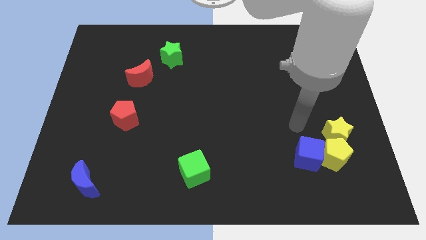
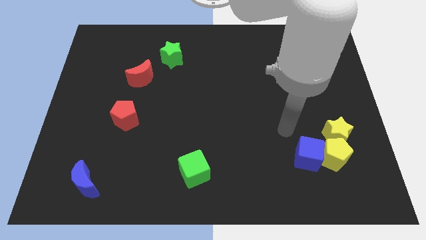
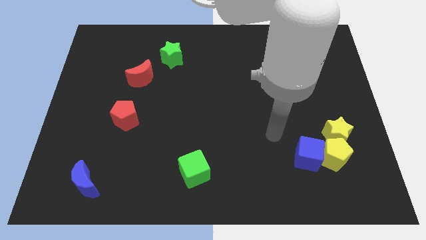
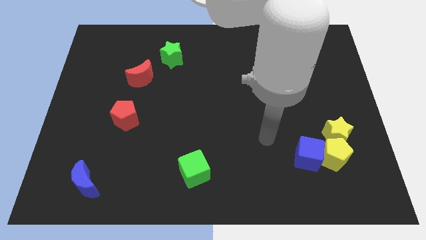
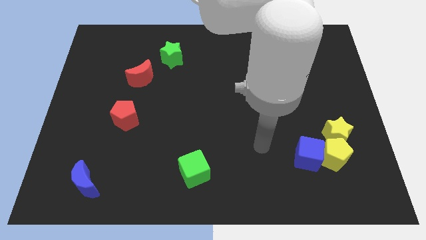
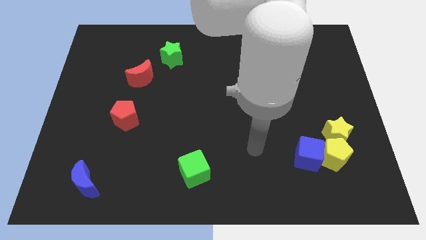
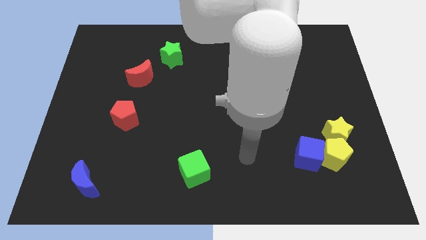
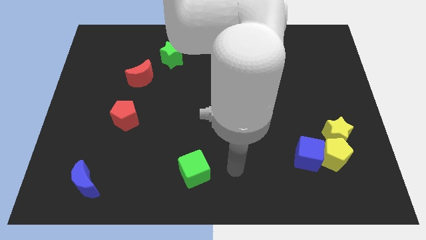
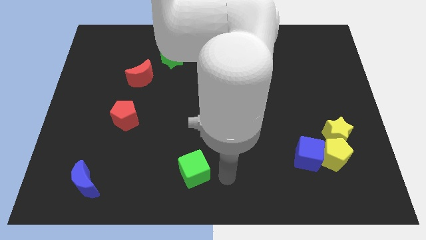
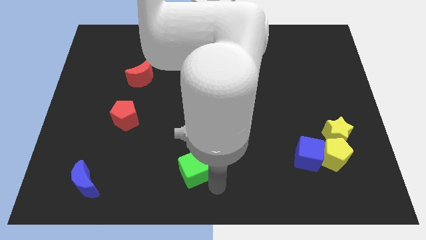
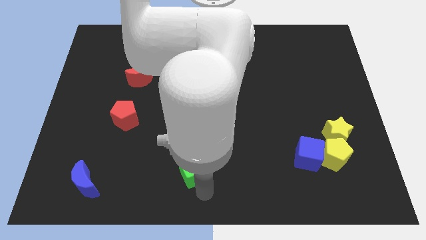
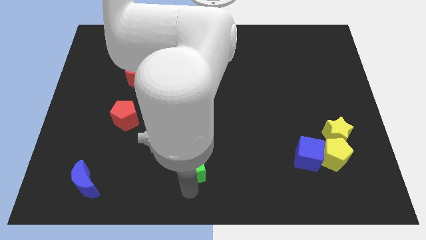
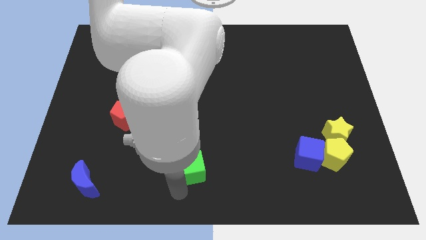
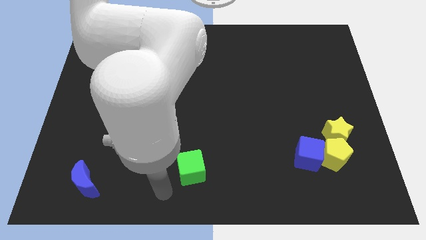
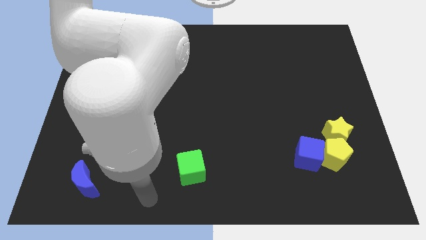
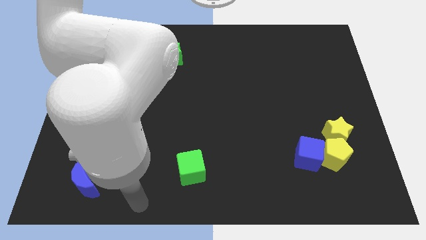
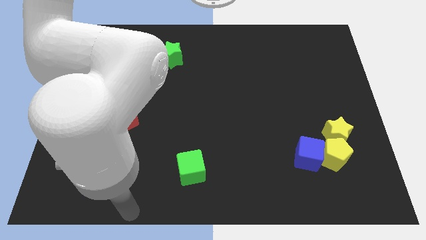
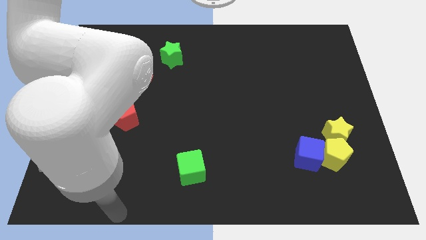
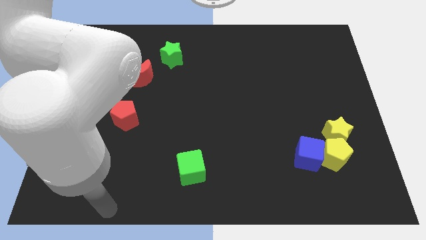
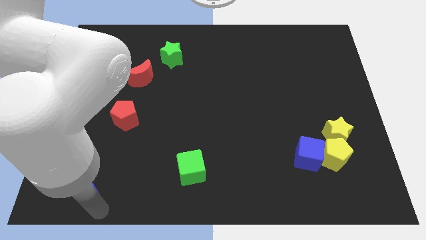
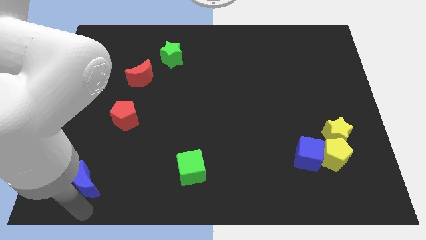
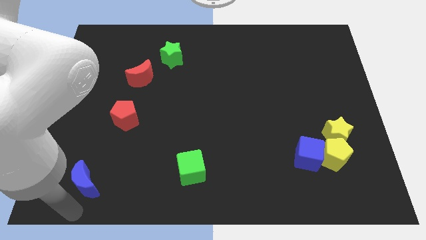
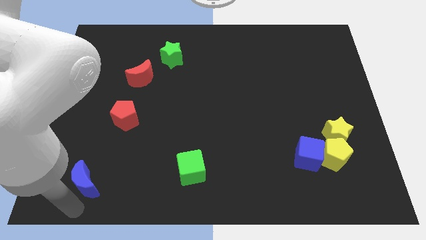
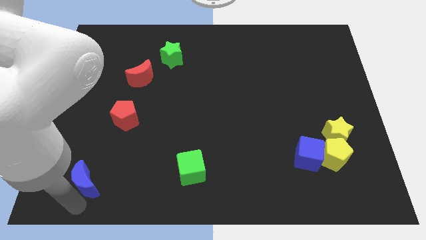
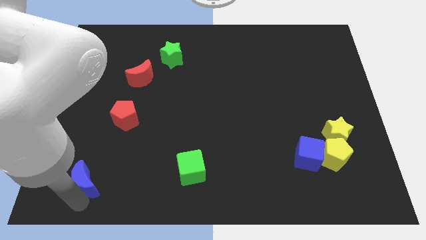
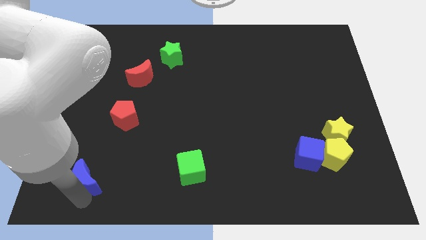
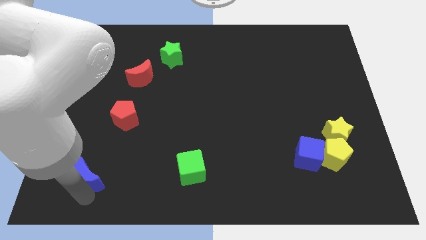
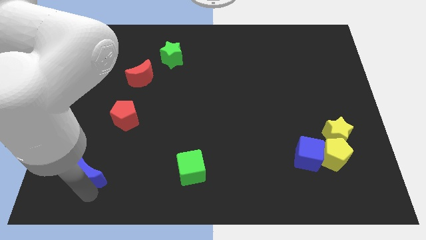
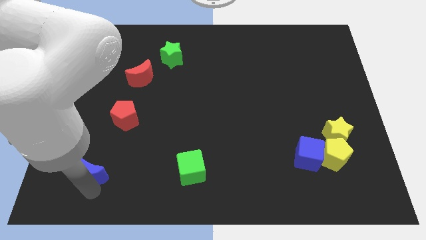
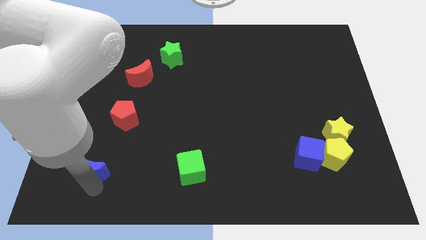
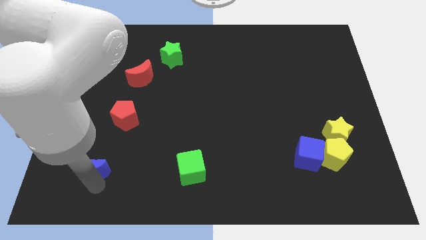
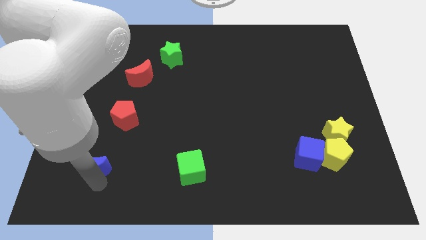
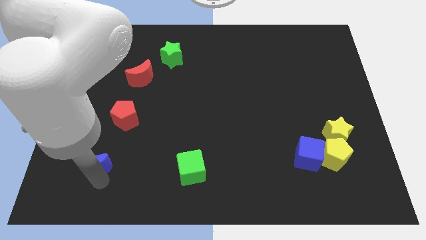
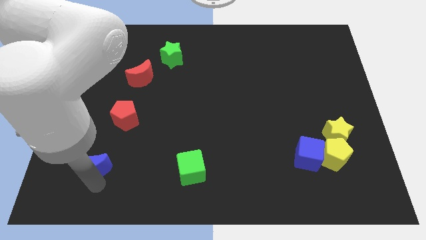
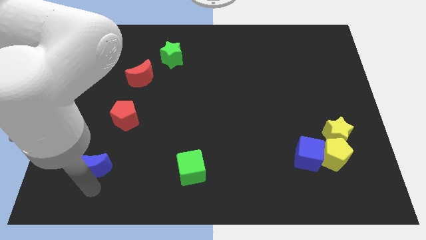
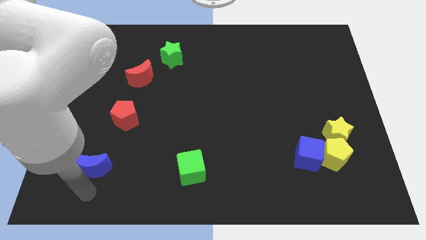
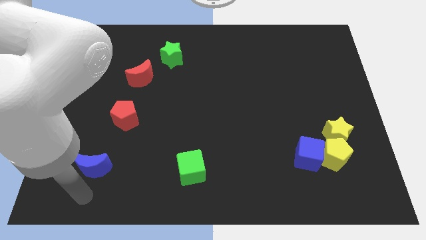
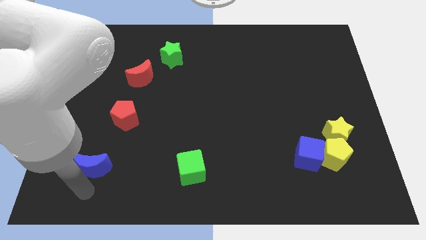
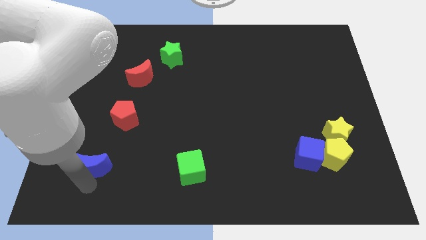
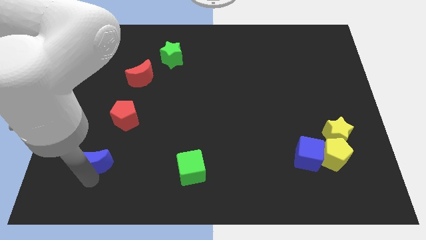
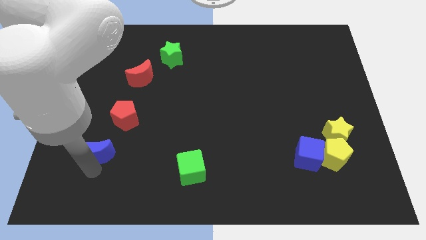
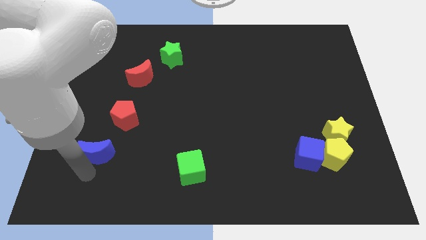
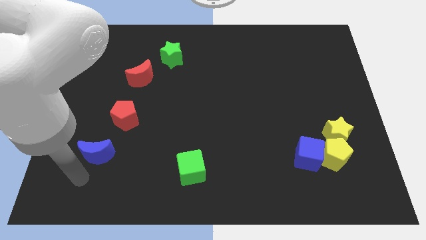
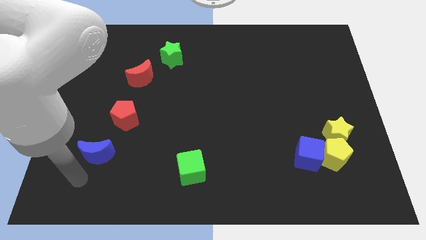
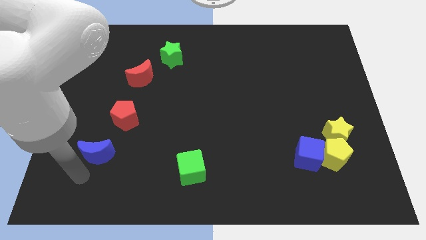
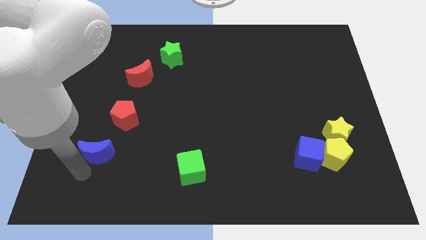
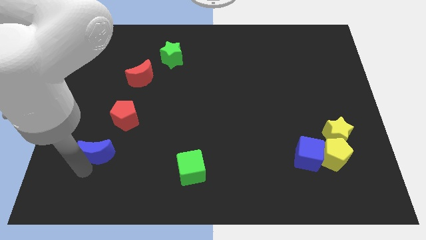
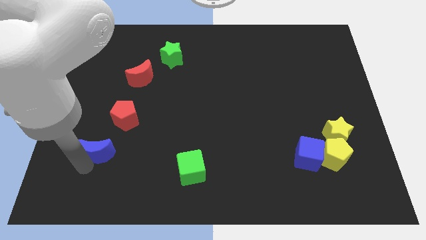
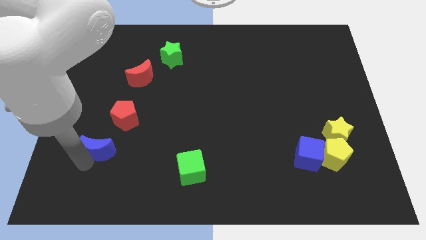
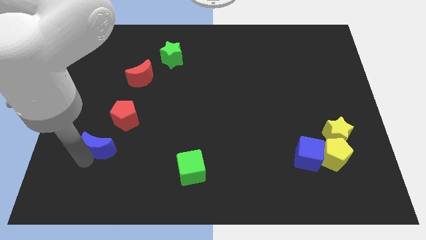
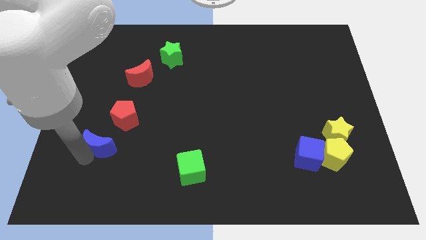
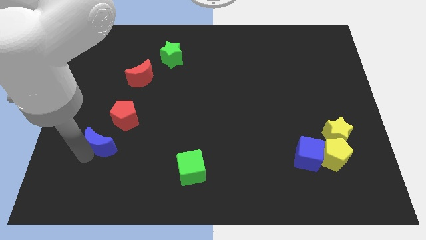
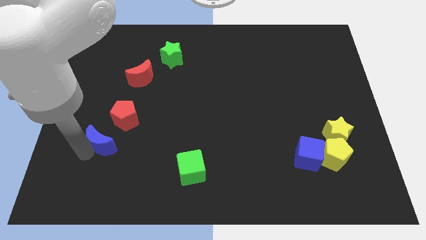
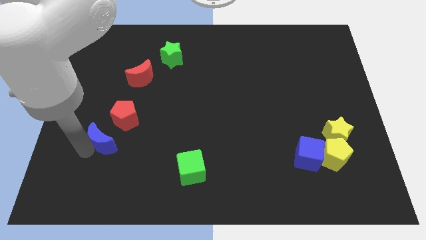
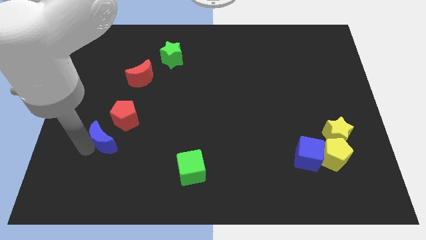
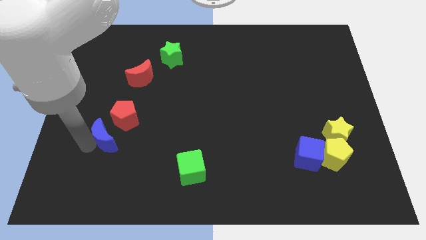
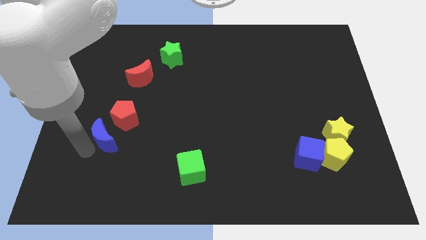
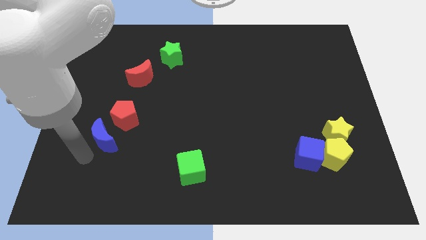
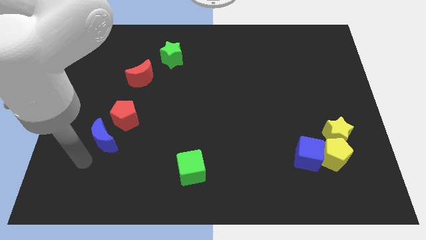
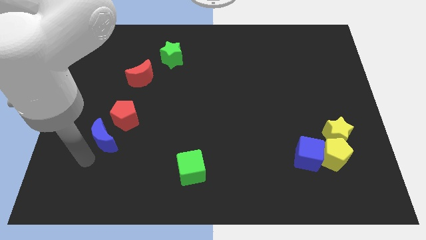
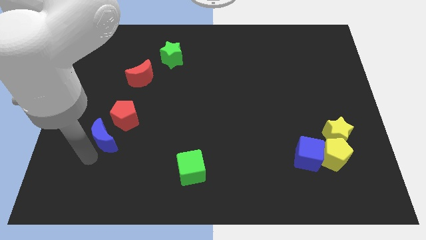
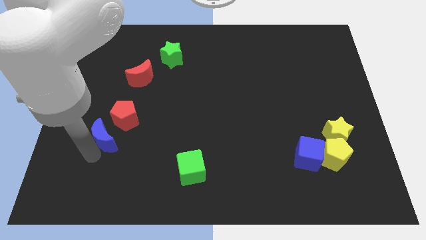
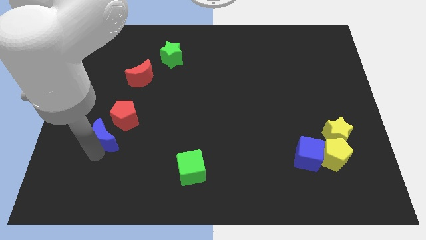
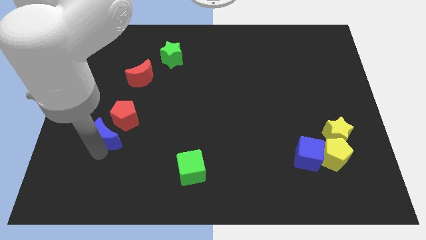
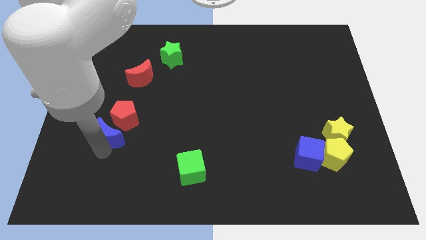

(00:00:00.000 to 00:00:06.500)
move the blue moon towards the red pentagon
